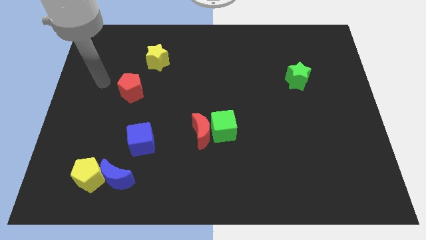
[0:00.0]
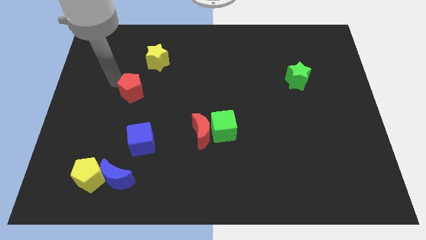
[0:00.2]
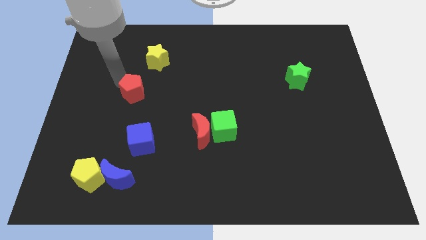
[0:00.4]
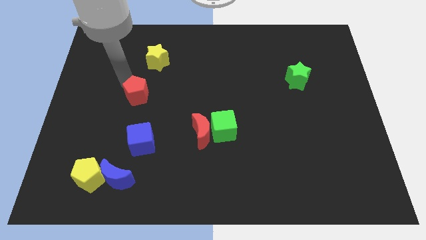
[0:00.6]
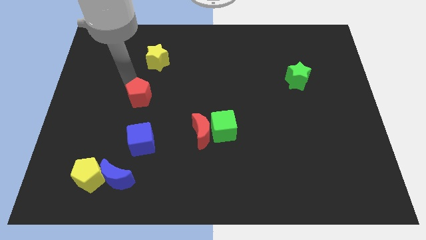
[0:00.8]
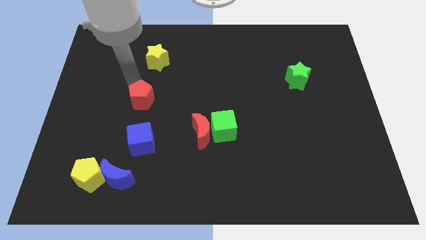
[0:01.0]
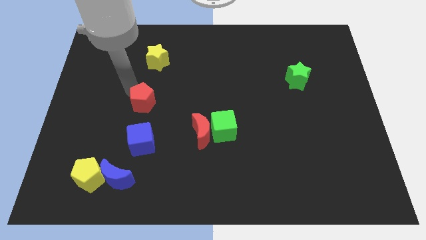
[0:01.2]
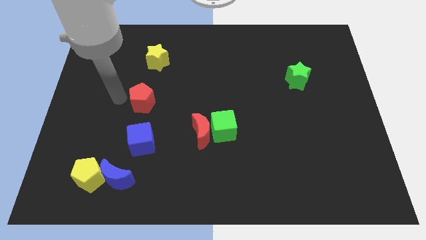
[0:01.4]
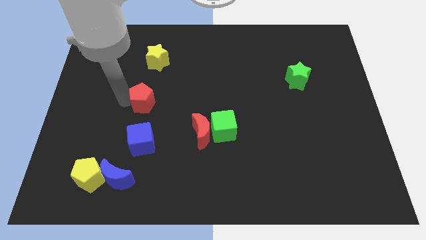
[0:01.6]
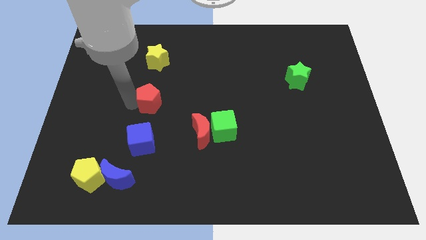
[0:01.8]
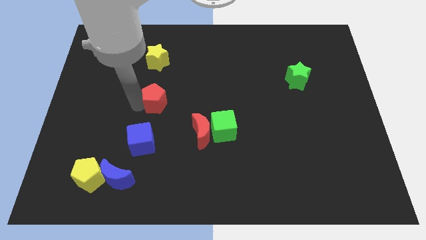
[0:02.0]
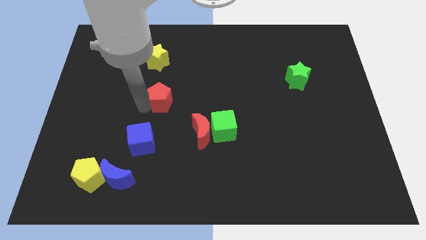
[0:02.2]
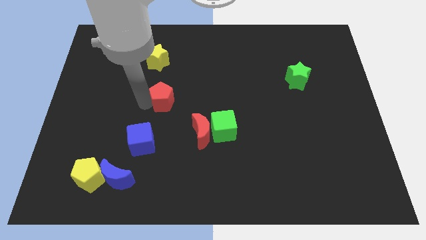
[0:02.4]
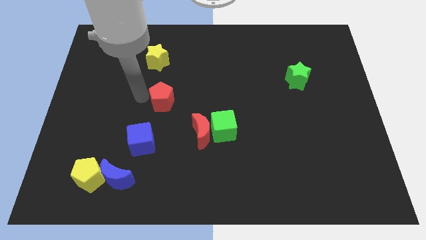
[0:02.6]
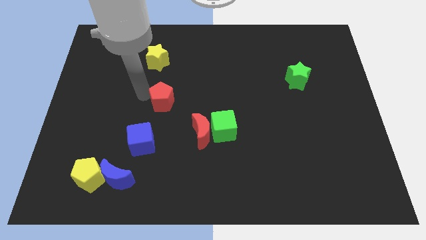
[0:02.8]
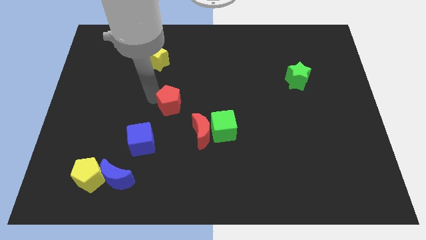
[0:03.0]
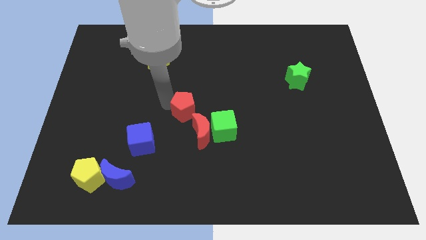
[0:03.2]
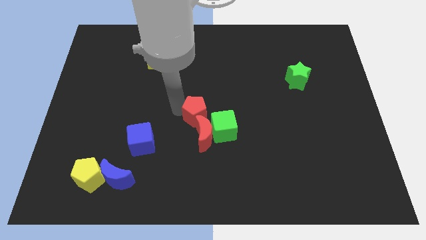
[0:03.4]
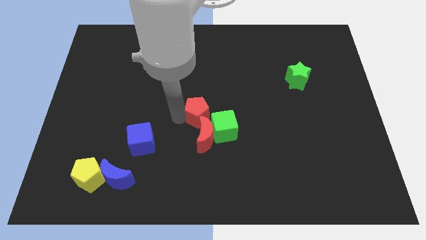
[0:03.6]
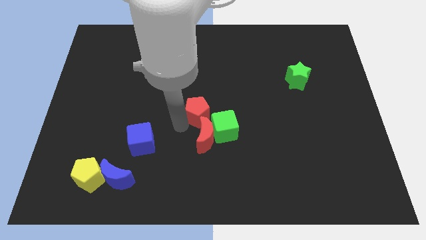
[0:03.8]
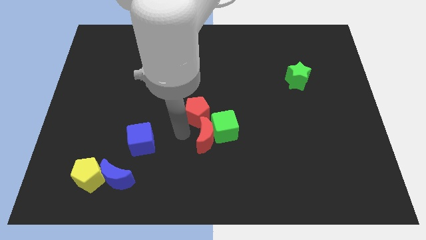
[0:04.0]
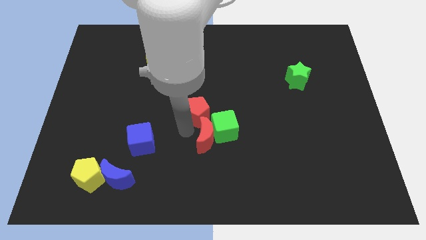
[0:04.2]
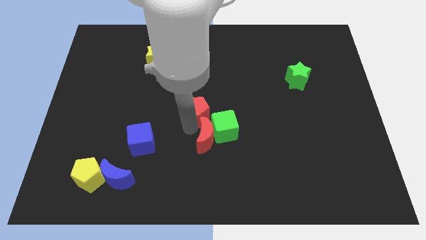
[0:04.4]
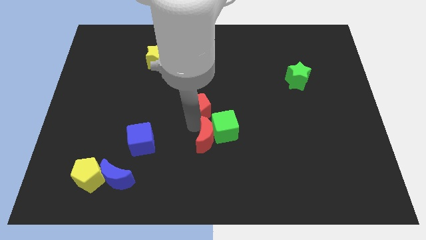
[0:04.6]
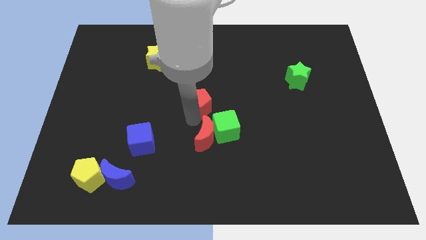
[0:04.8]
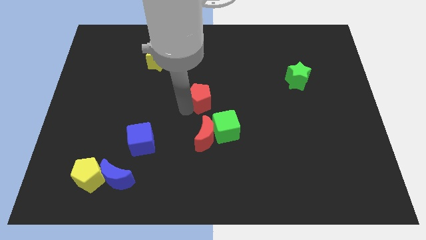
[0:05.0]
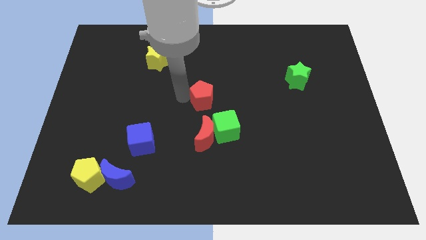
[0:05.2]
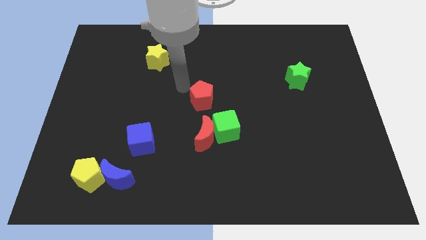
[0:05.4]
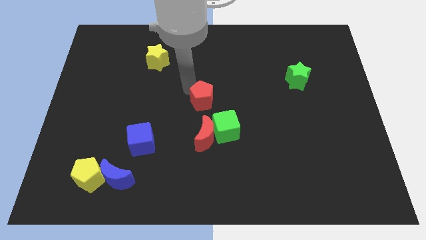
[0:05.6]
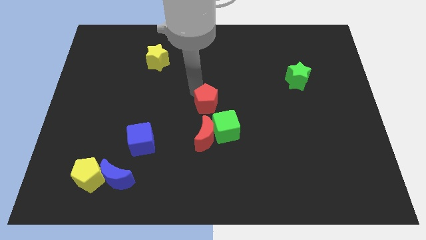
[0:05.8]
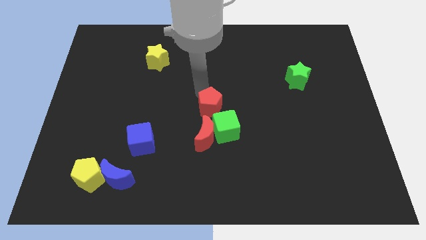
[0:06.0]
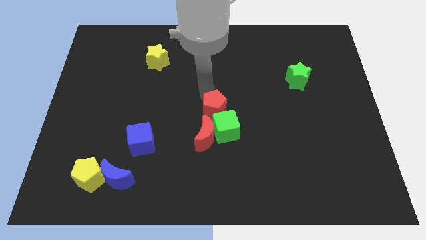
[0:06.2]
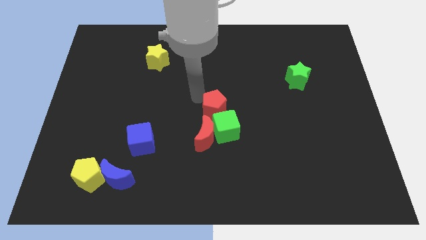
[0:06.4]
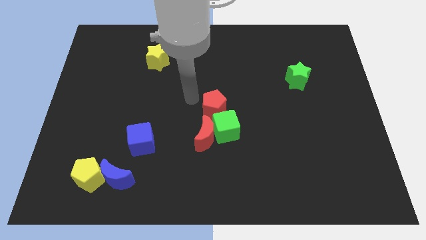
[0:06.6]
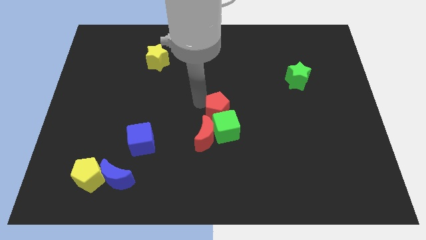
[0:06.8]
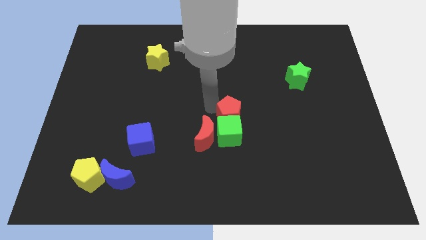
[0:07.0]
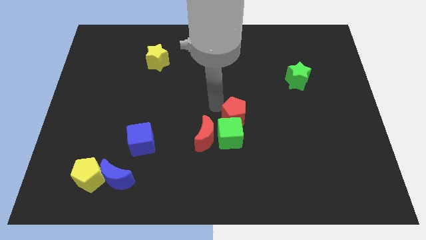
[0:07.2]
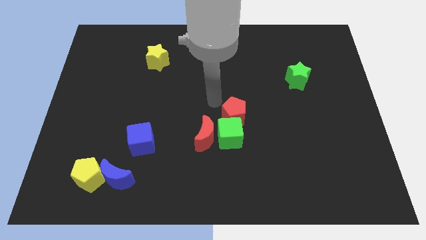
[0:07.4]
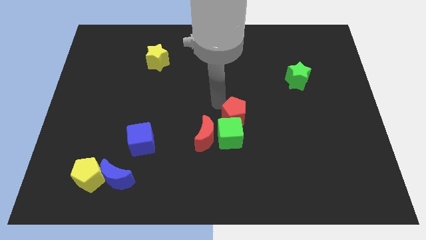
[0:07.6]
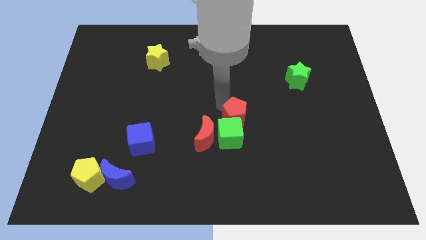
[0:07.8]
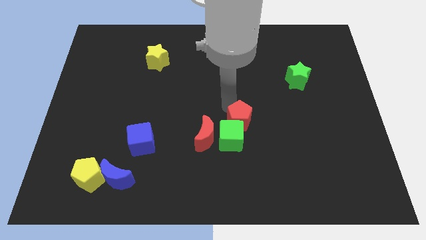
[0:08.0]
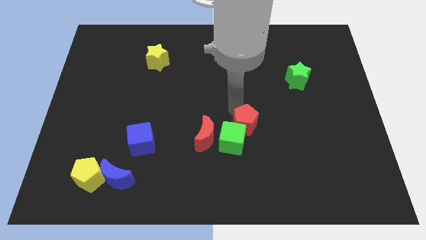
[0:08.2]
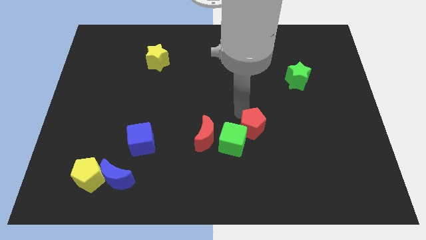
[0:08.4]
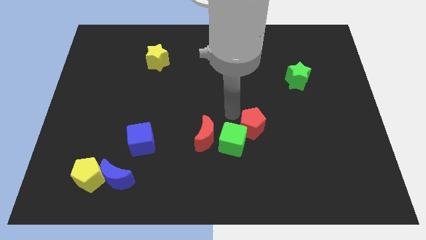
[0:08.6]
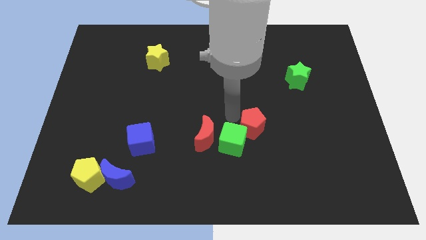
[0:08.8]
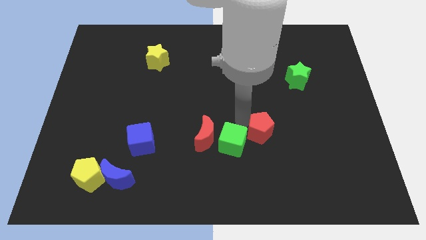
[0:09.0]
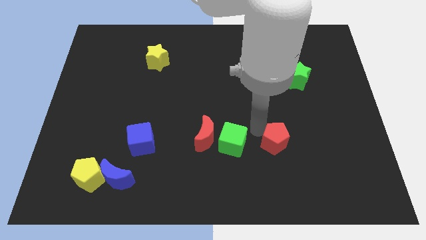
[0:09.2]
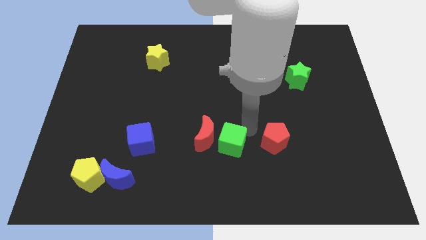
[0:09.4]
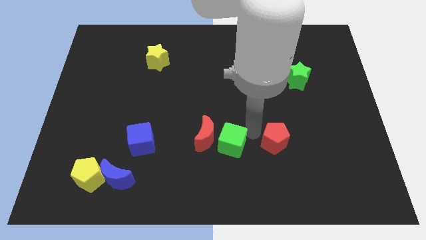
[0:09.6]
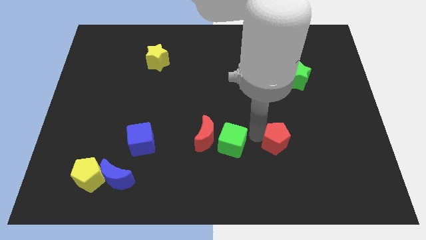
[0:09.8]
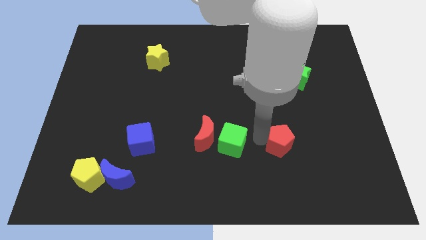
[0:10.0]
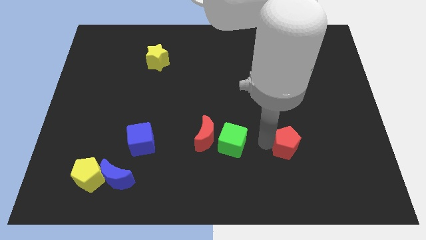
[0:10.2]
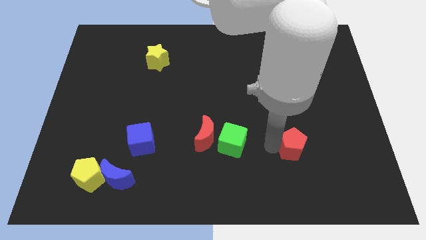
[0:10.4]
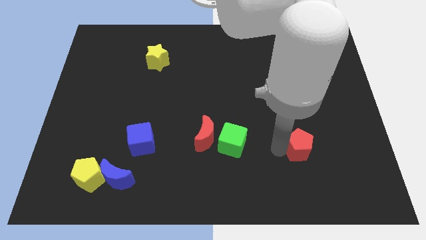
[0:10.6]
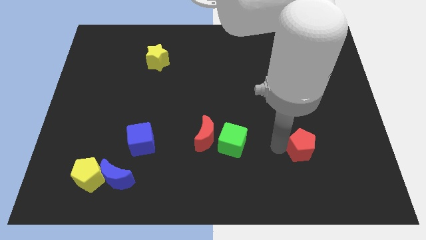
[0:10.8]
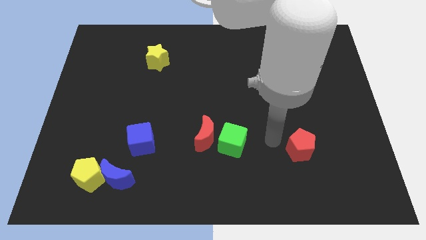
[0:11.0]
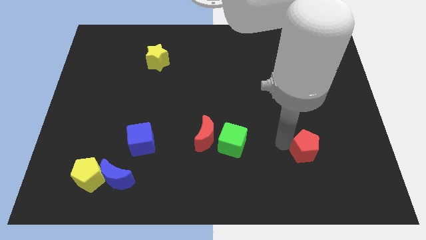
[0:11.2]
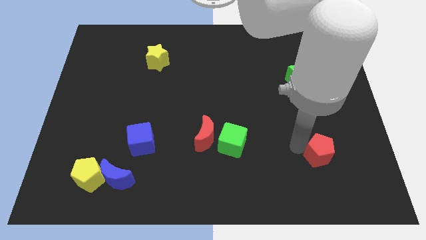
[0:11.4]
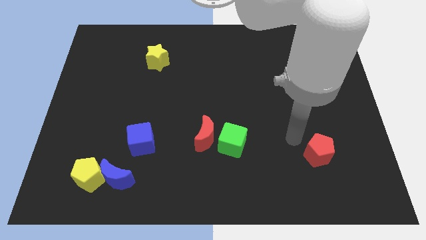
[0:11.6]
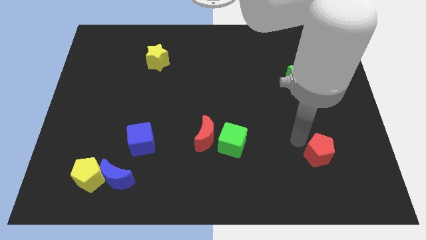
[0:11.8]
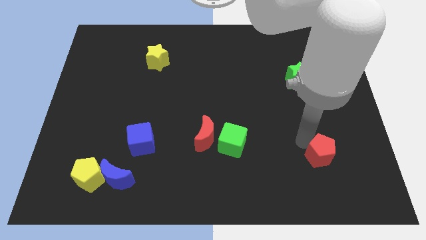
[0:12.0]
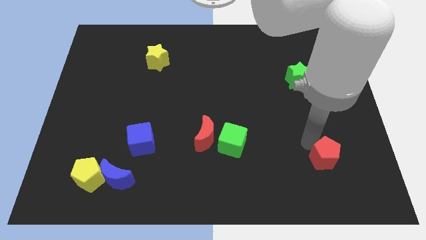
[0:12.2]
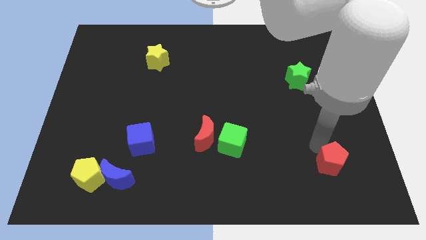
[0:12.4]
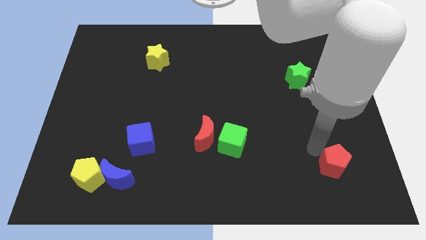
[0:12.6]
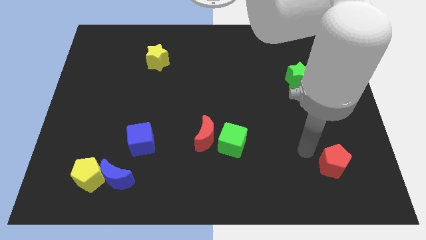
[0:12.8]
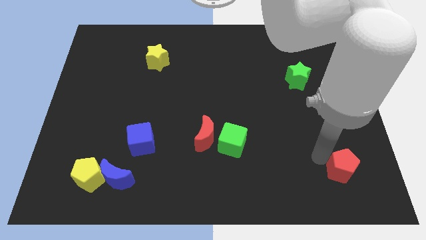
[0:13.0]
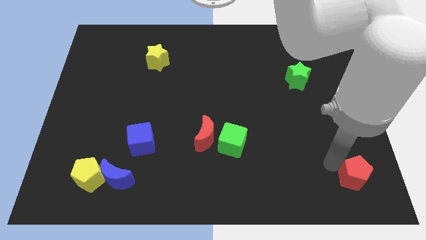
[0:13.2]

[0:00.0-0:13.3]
slide the red pentagon to the lower right corner
